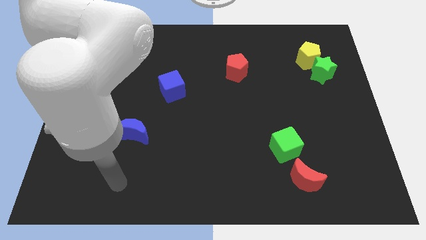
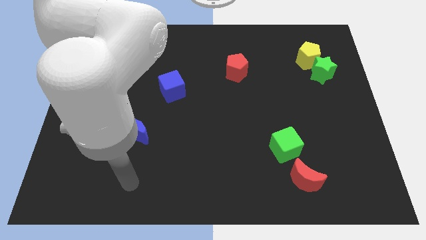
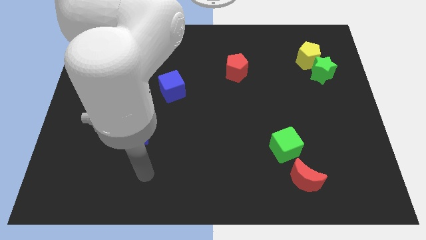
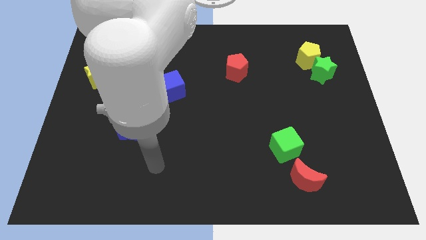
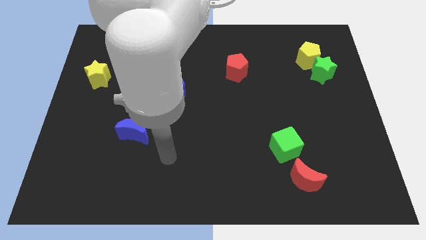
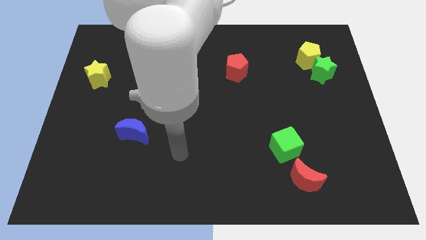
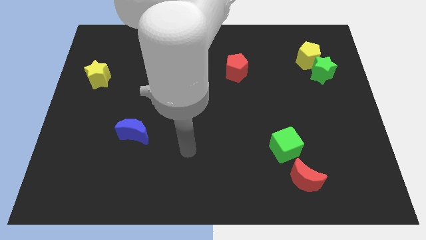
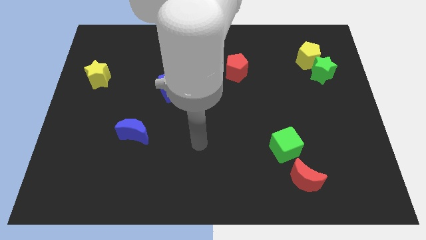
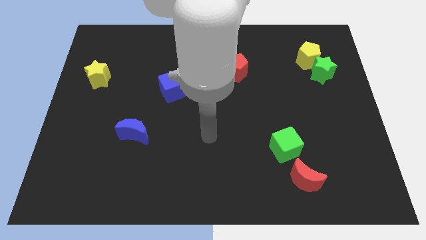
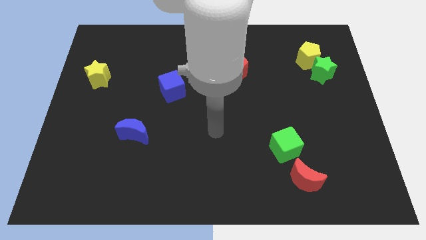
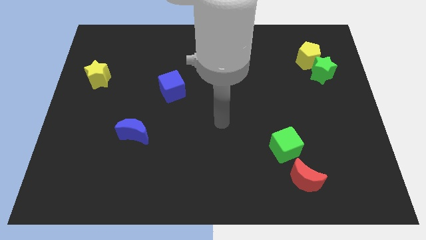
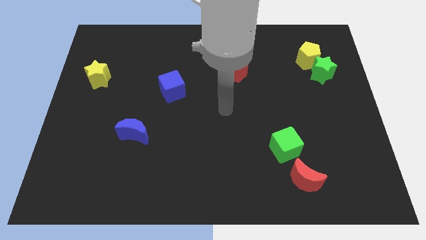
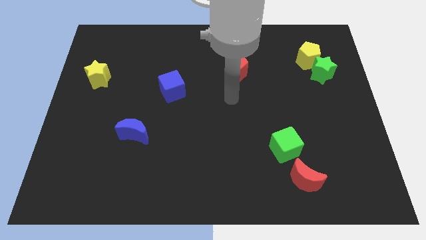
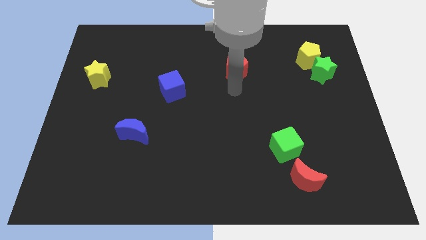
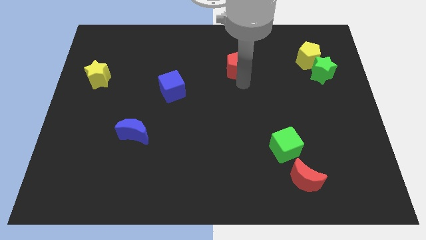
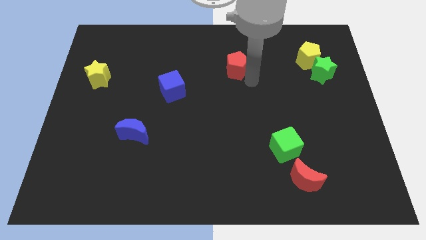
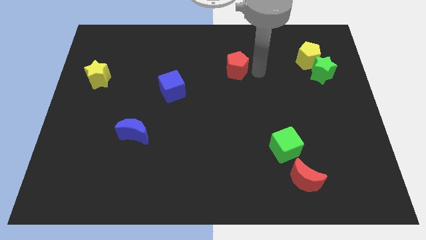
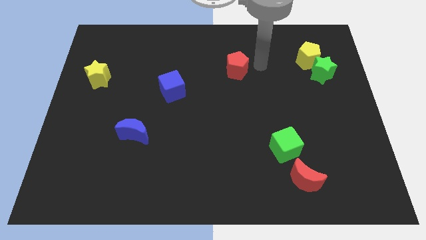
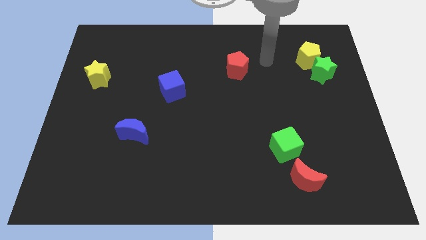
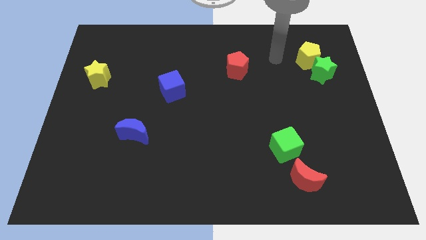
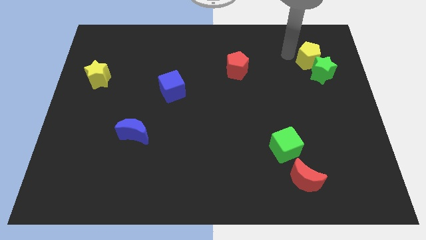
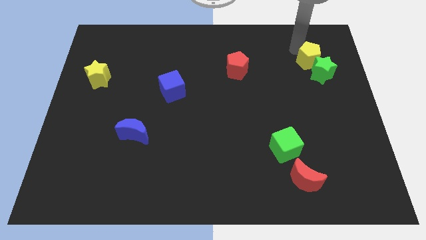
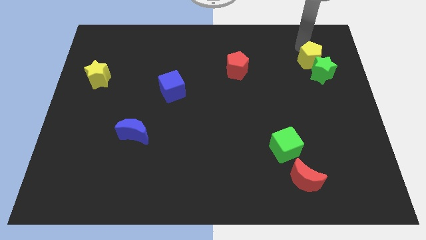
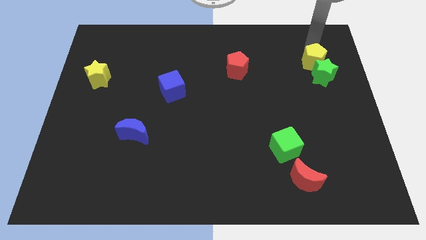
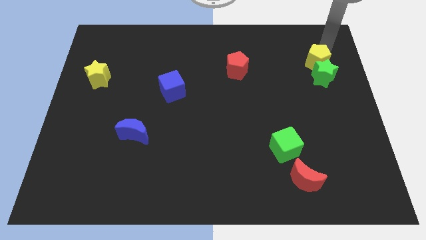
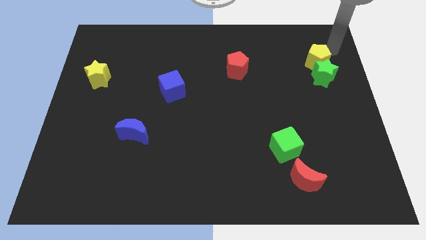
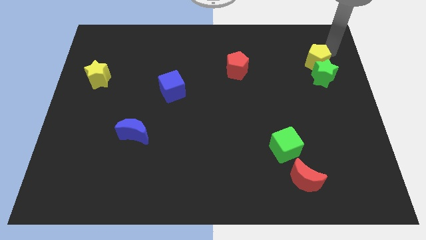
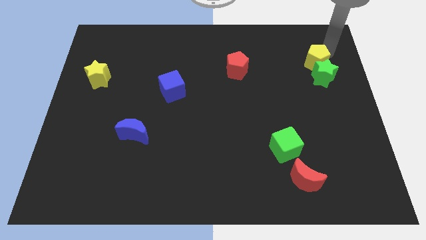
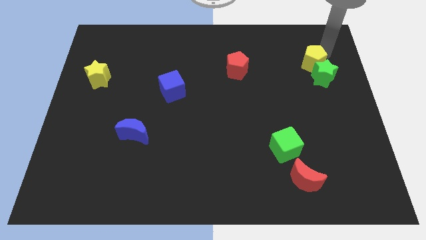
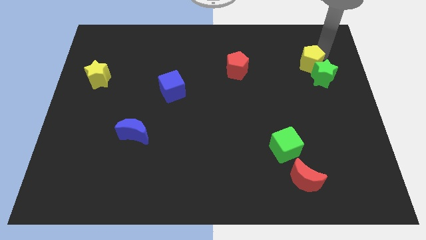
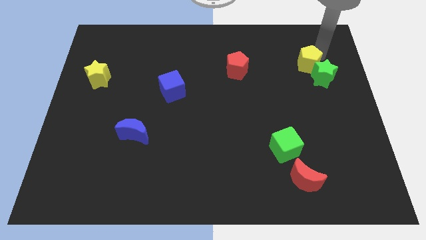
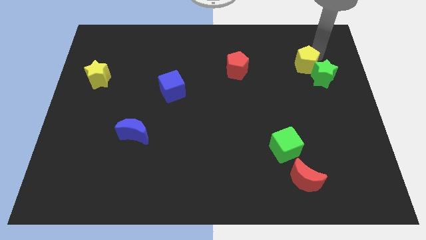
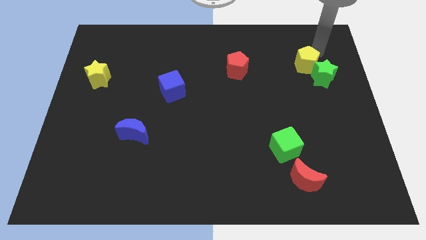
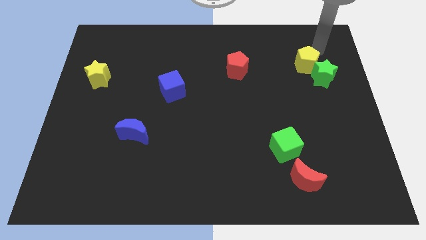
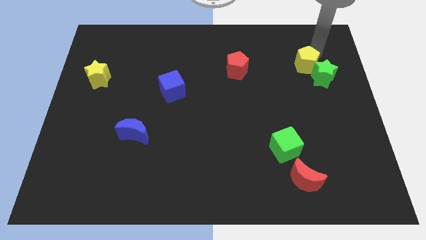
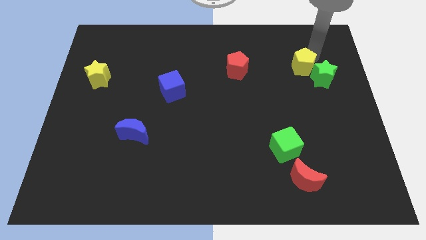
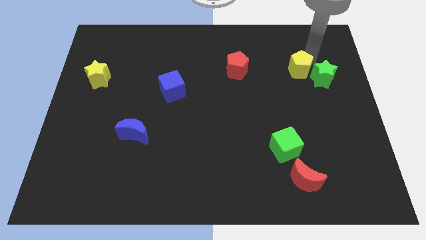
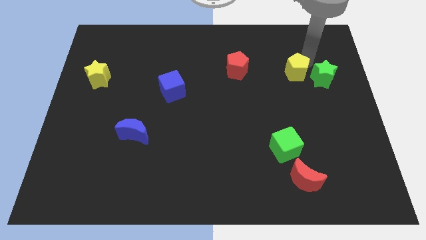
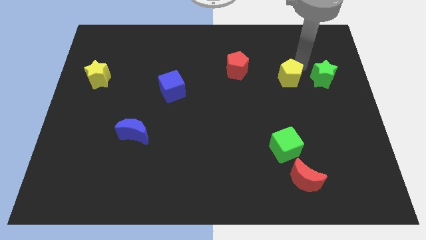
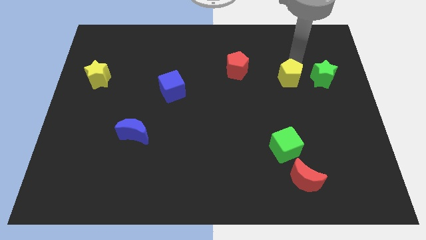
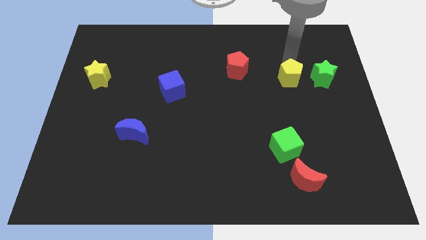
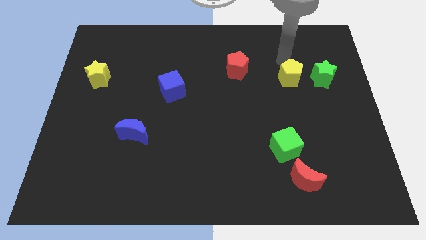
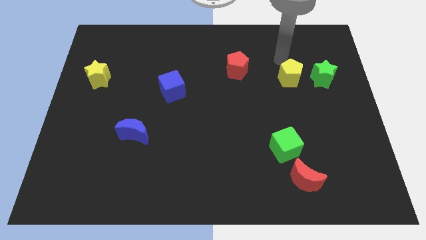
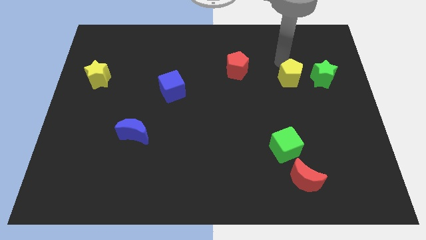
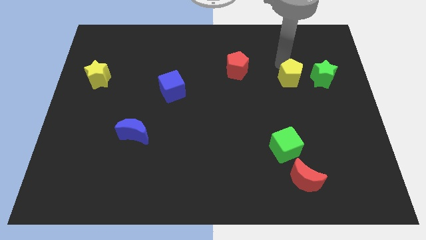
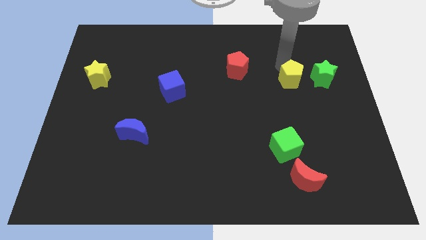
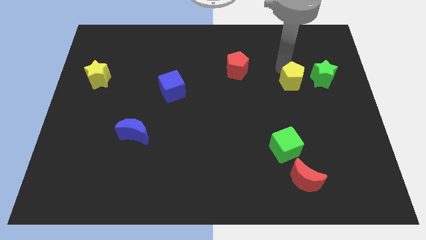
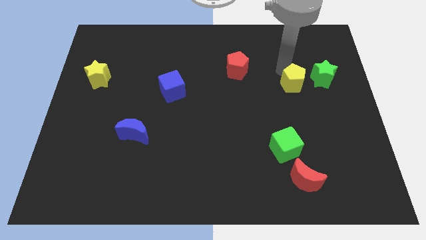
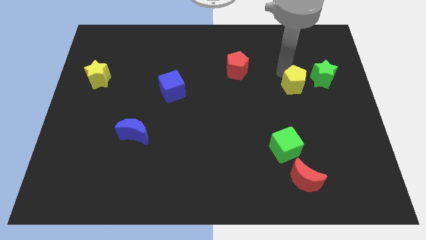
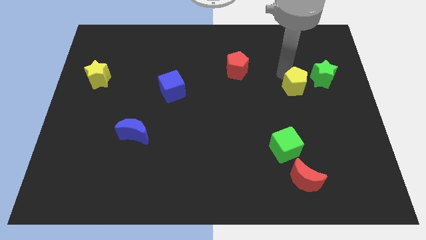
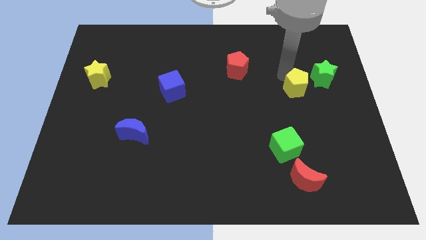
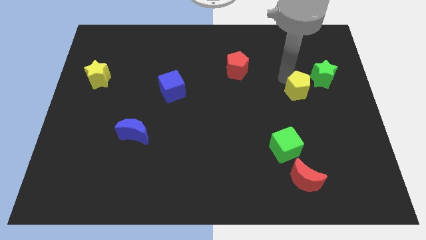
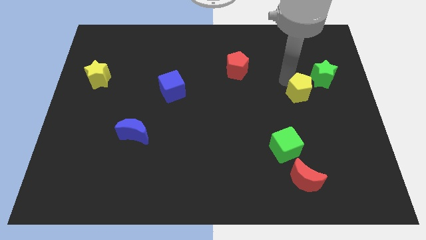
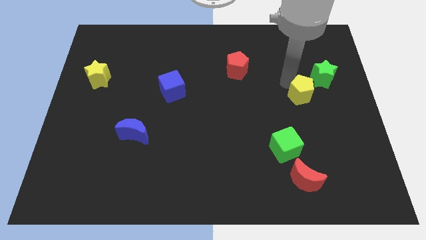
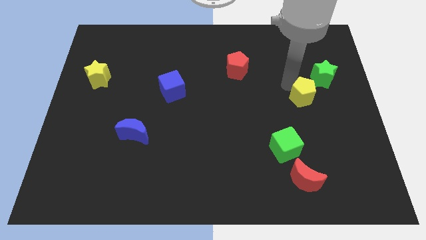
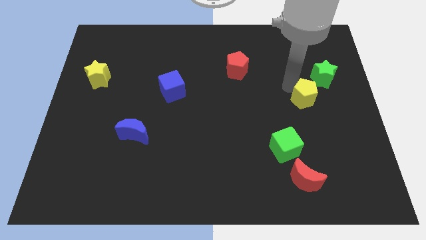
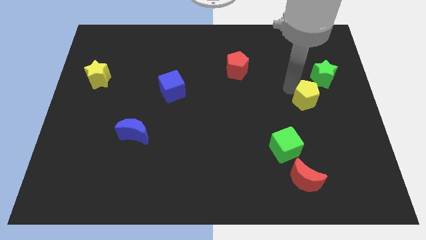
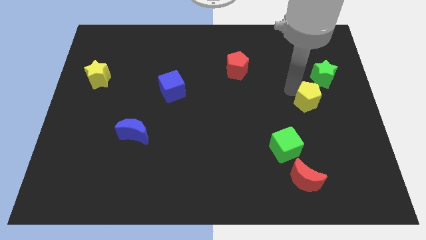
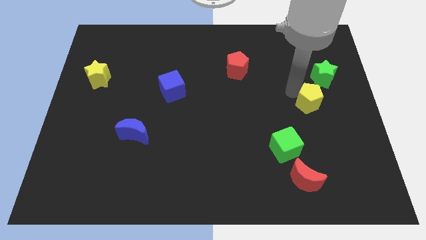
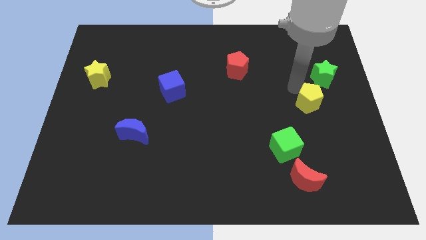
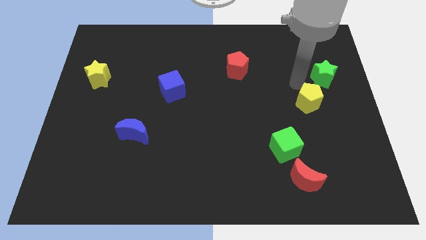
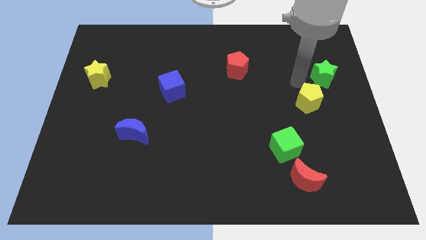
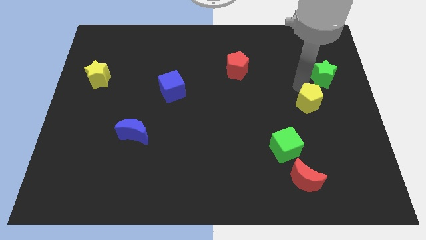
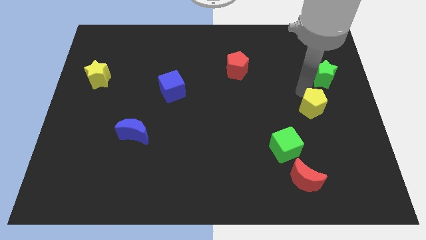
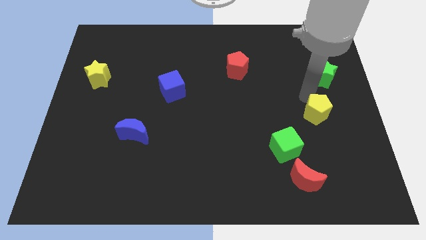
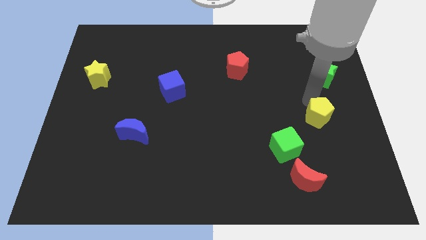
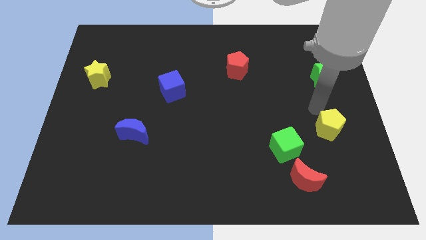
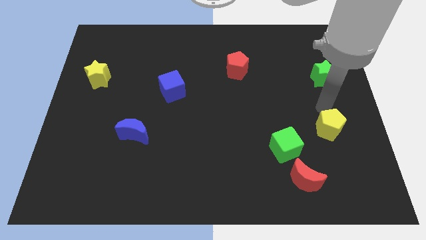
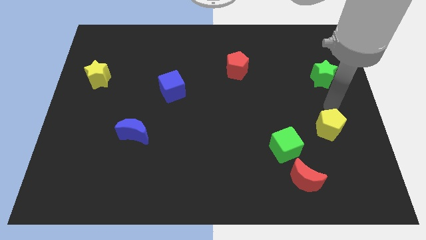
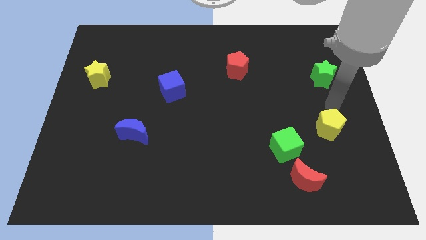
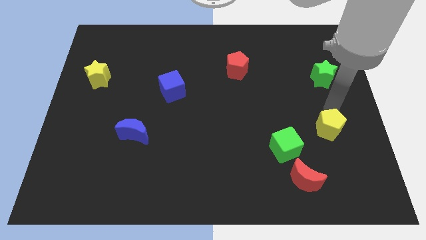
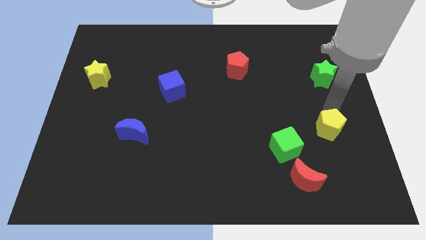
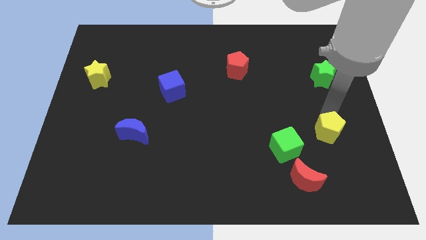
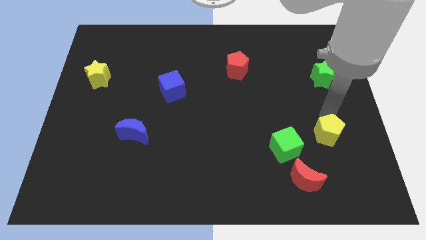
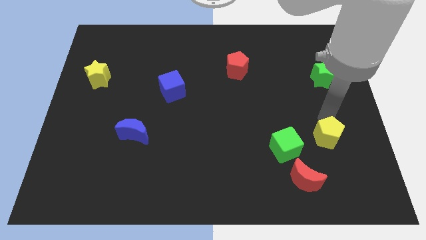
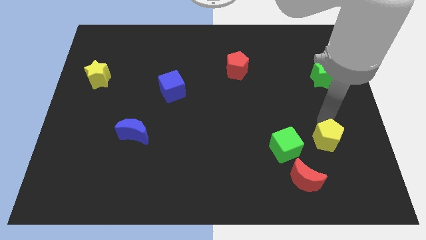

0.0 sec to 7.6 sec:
push the yellow pentagon to the top right of the red moon
